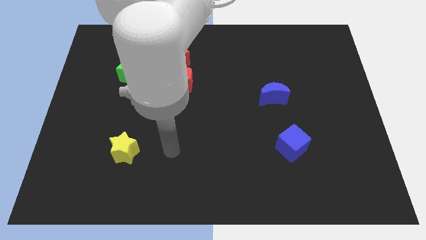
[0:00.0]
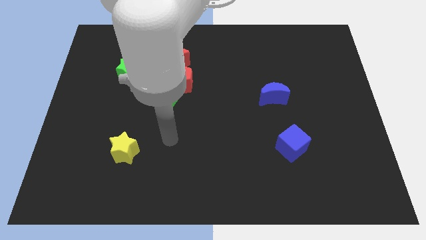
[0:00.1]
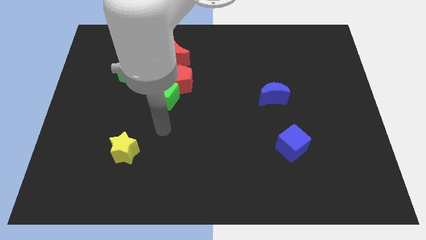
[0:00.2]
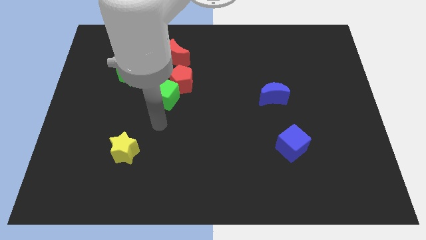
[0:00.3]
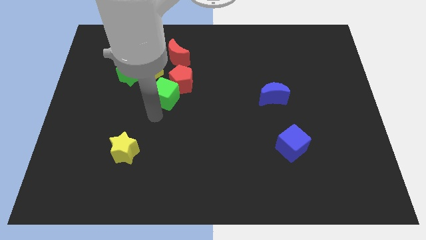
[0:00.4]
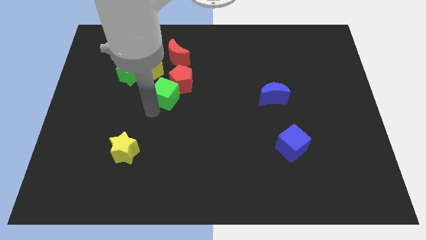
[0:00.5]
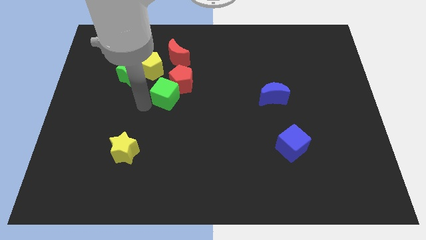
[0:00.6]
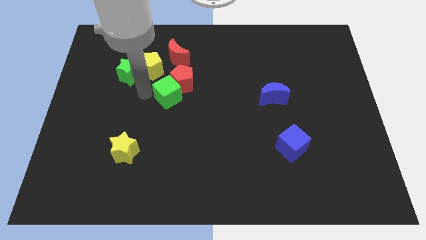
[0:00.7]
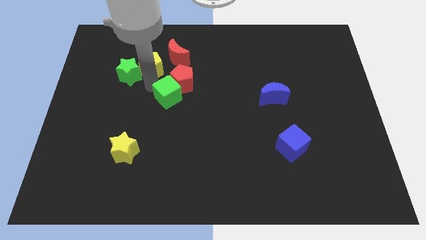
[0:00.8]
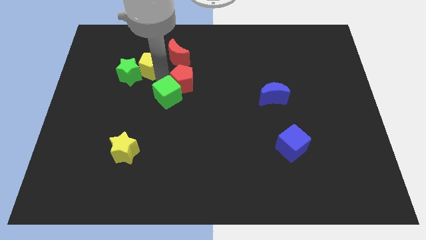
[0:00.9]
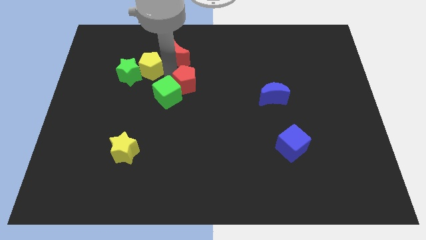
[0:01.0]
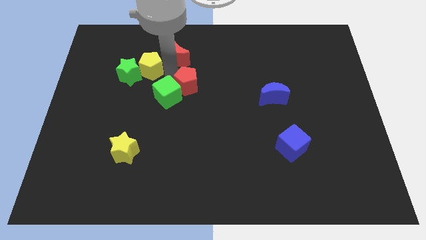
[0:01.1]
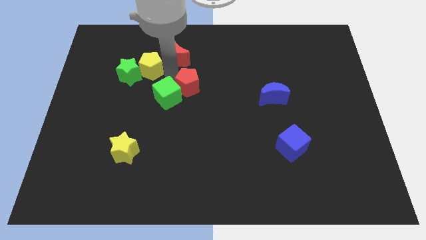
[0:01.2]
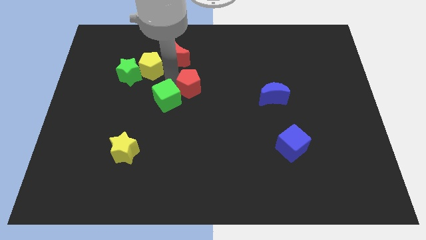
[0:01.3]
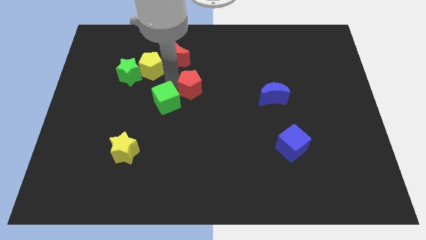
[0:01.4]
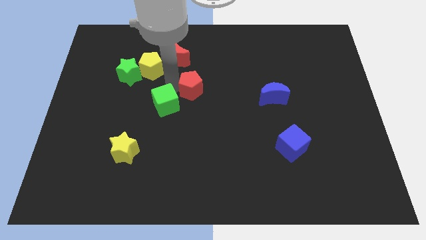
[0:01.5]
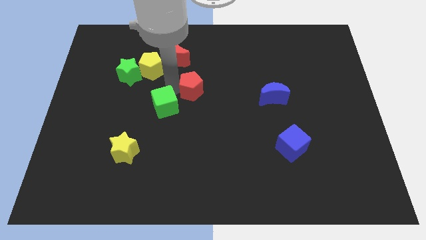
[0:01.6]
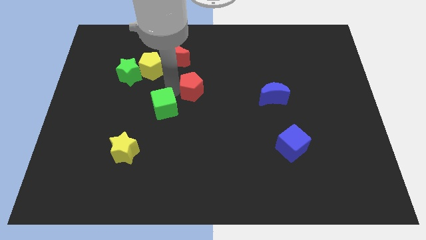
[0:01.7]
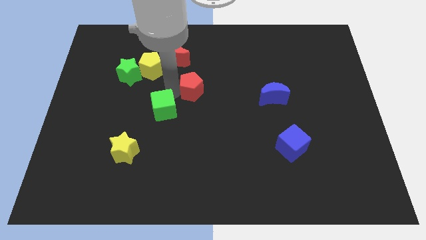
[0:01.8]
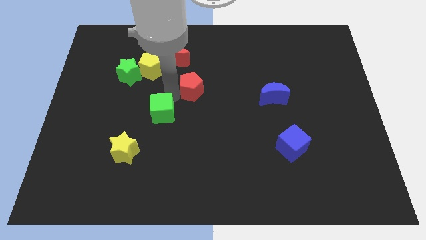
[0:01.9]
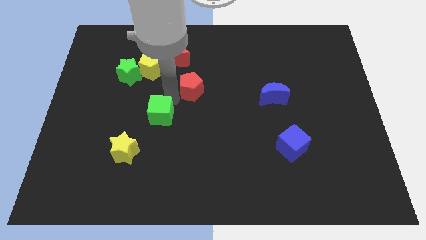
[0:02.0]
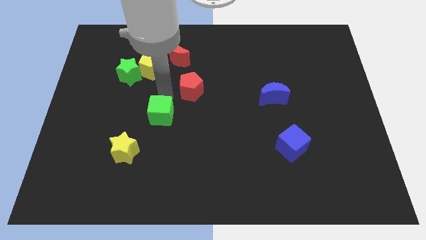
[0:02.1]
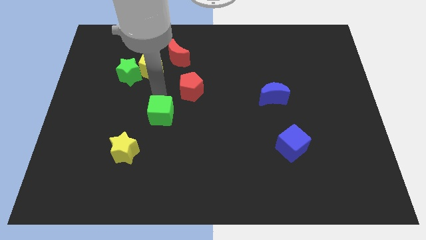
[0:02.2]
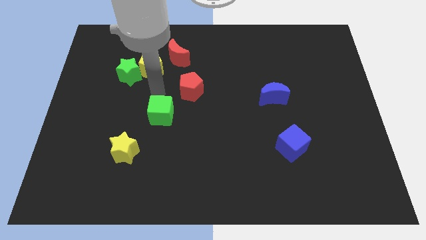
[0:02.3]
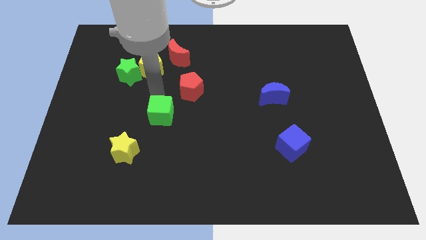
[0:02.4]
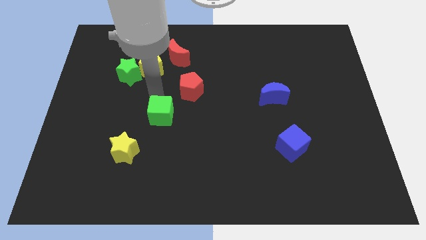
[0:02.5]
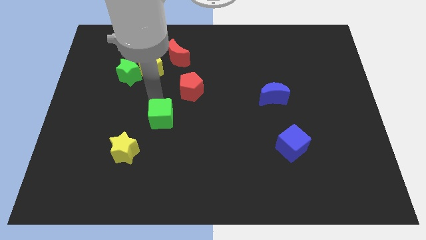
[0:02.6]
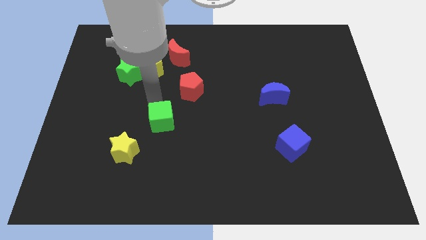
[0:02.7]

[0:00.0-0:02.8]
move the green cube downwards a bit

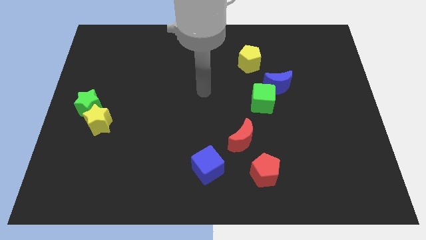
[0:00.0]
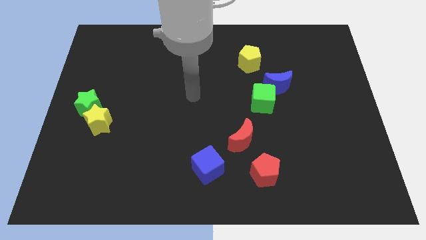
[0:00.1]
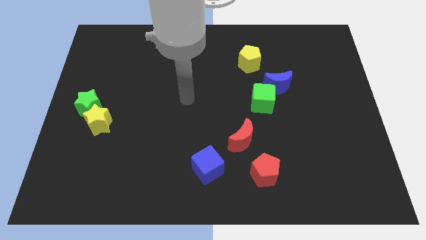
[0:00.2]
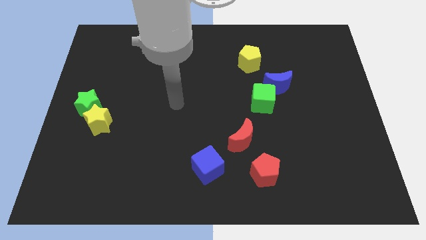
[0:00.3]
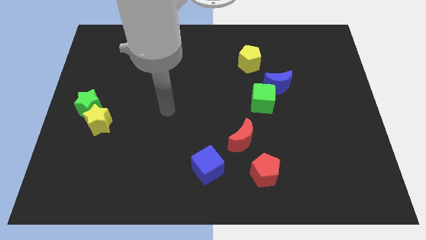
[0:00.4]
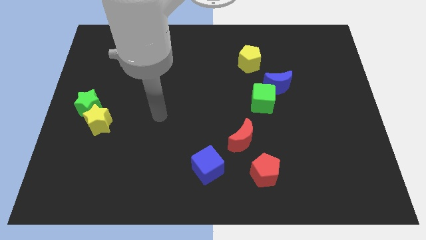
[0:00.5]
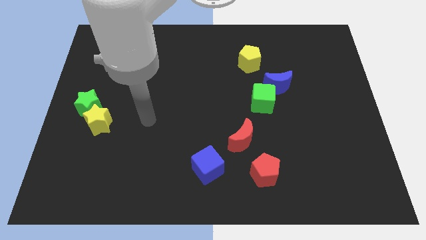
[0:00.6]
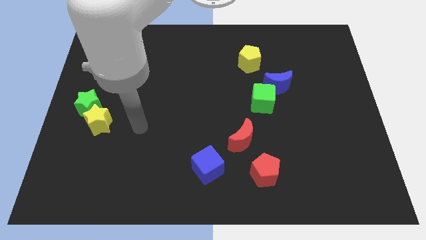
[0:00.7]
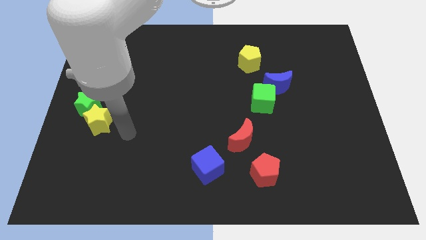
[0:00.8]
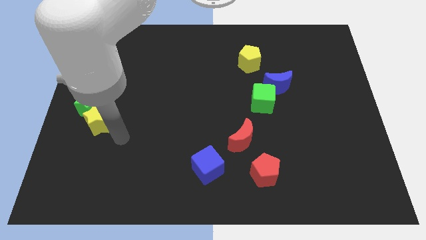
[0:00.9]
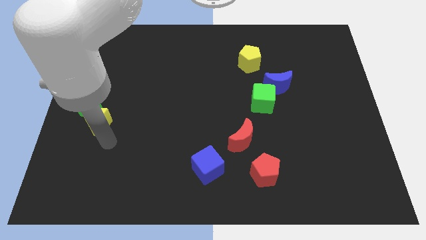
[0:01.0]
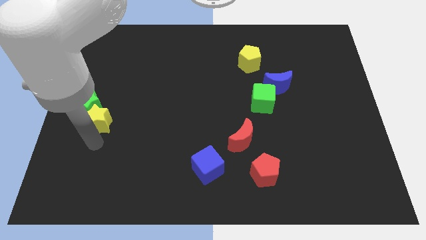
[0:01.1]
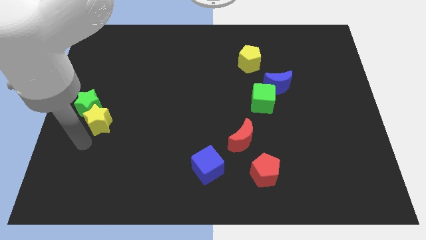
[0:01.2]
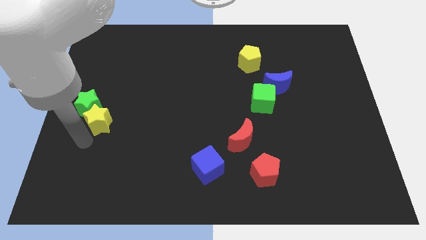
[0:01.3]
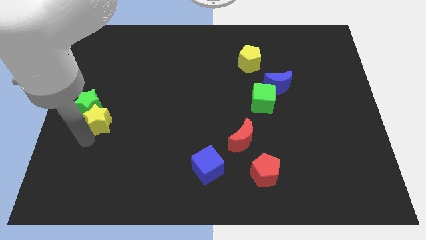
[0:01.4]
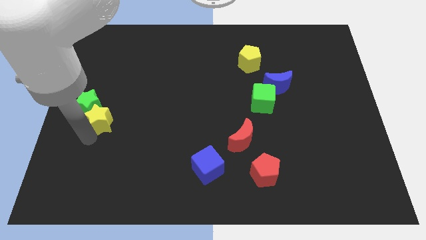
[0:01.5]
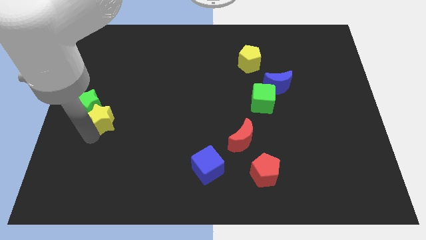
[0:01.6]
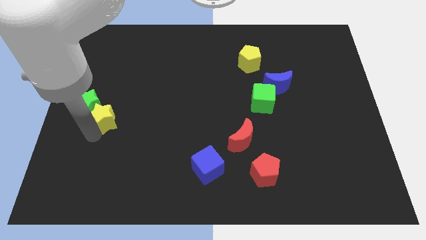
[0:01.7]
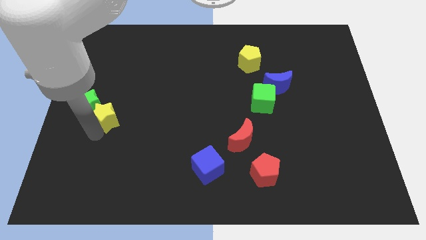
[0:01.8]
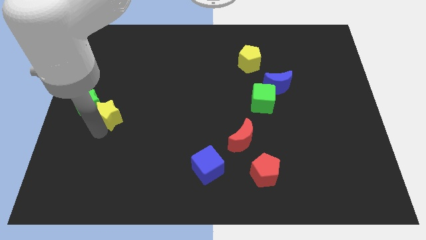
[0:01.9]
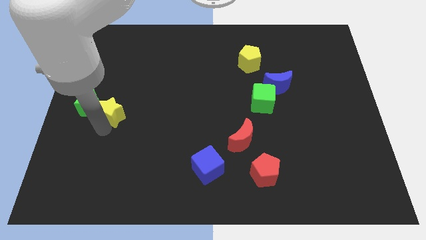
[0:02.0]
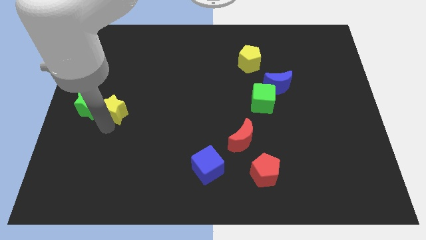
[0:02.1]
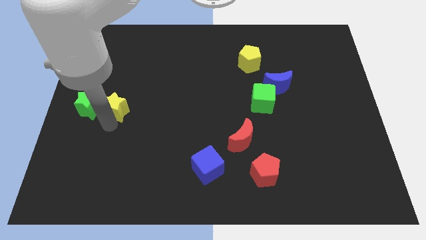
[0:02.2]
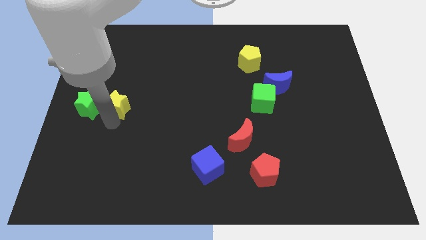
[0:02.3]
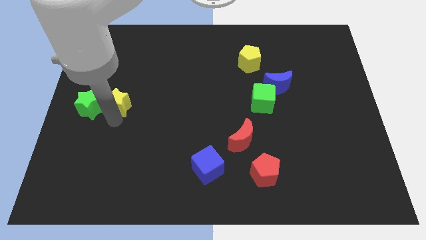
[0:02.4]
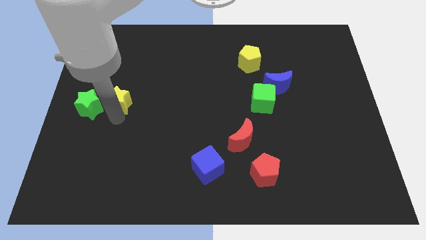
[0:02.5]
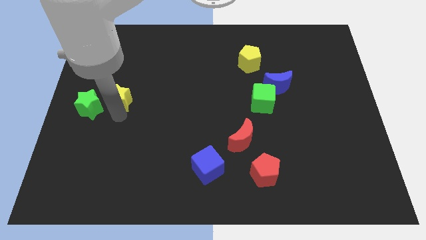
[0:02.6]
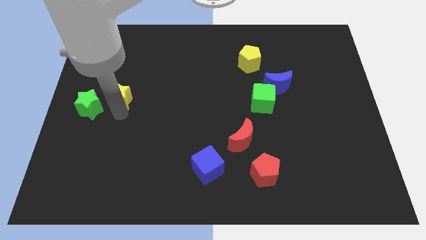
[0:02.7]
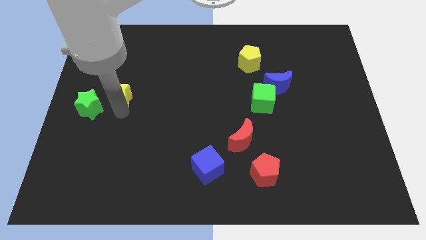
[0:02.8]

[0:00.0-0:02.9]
slightly push the yellow star up

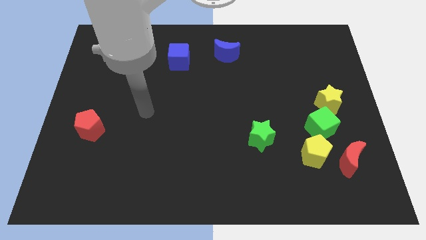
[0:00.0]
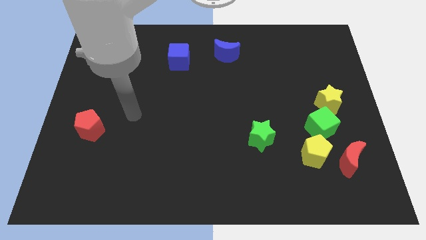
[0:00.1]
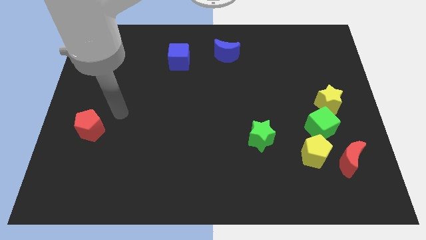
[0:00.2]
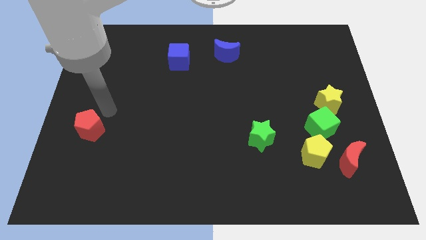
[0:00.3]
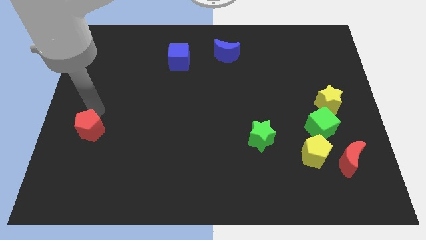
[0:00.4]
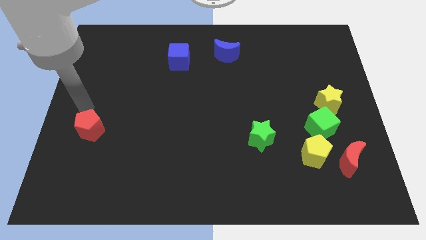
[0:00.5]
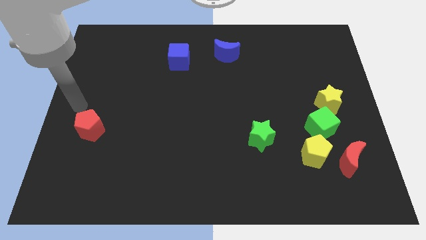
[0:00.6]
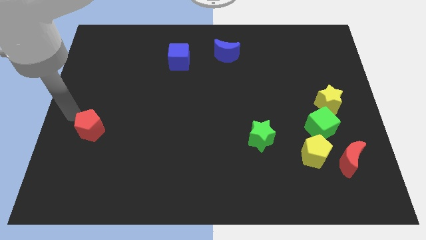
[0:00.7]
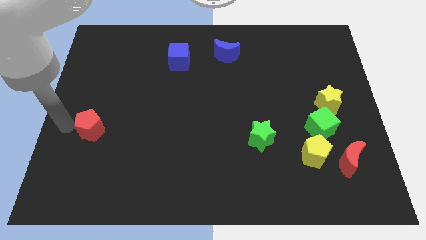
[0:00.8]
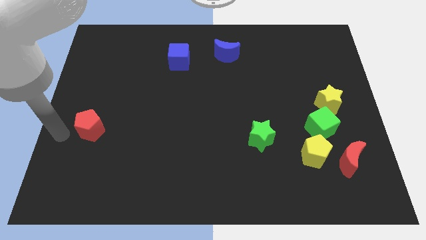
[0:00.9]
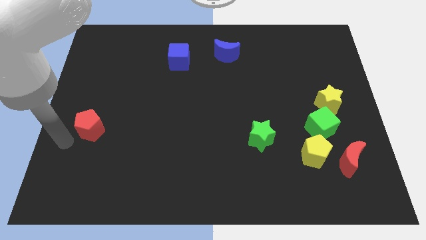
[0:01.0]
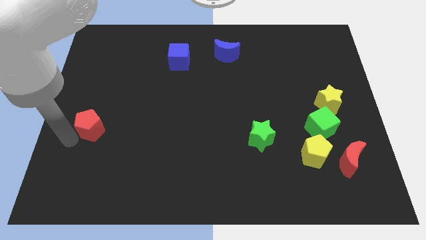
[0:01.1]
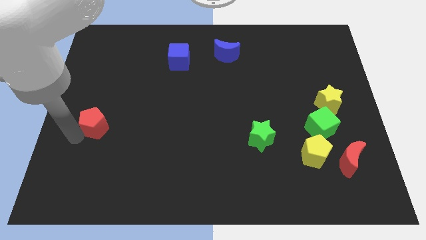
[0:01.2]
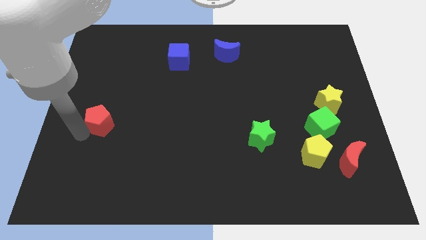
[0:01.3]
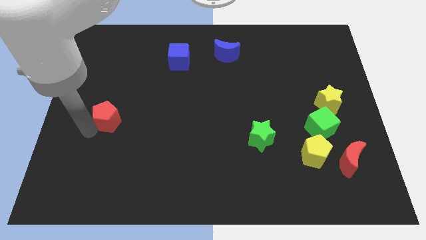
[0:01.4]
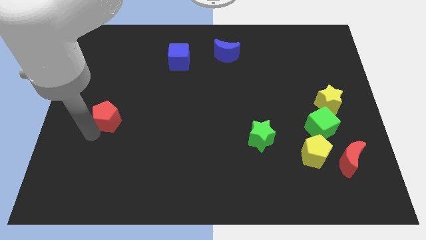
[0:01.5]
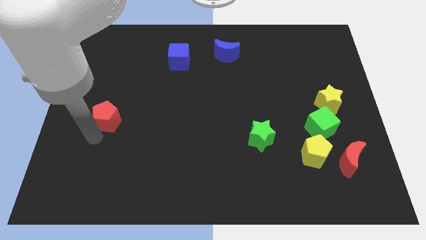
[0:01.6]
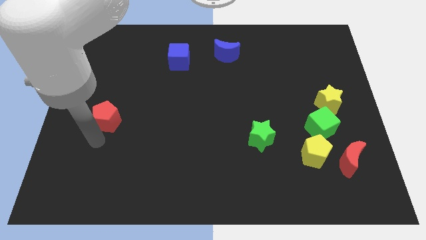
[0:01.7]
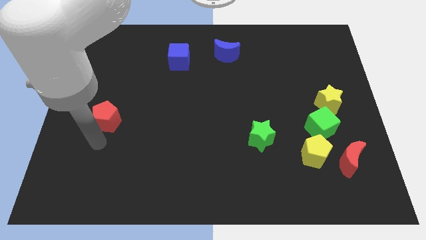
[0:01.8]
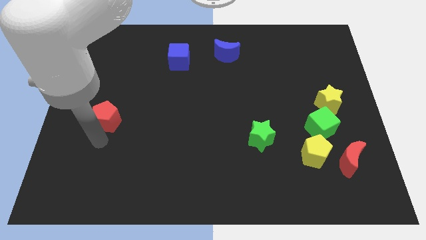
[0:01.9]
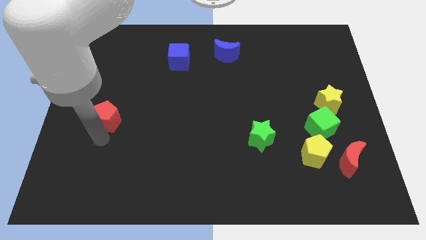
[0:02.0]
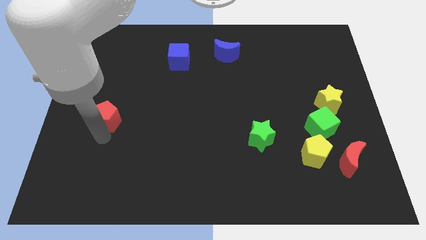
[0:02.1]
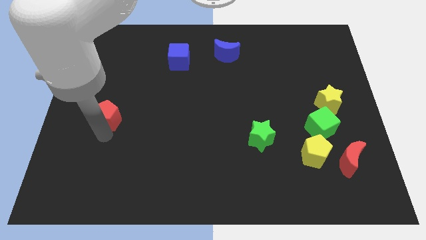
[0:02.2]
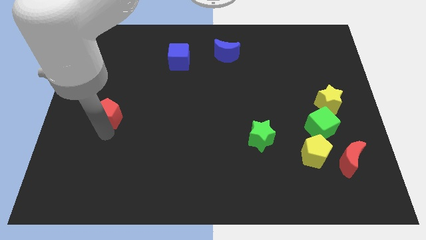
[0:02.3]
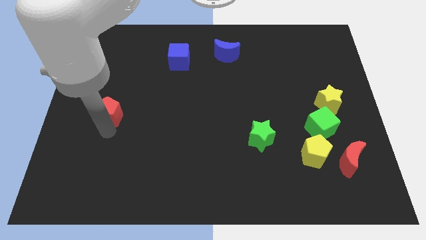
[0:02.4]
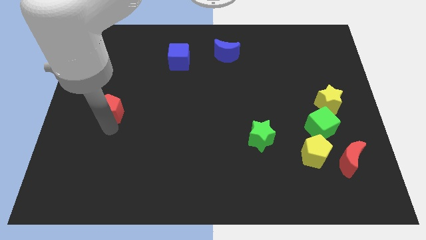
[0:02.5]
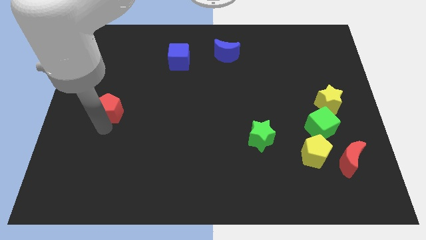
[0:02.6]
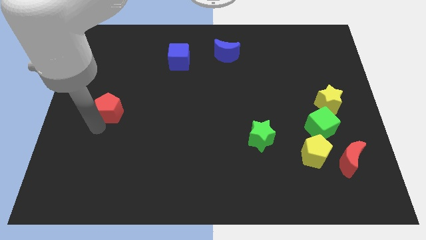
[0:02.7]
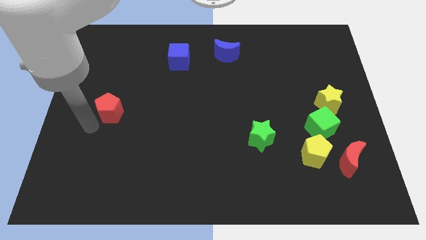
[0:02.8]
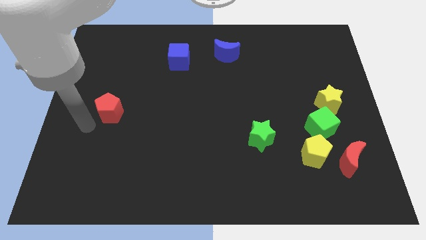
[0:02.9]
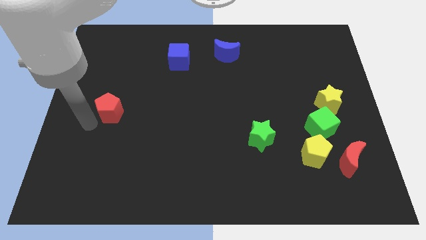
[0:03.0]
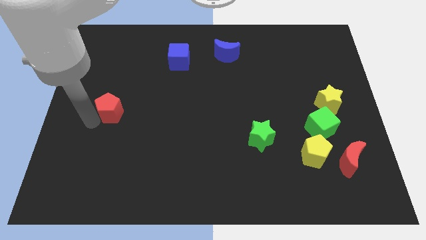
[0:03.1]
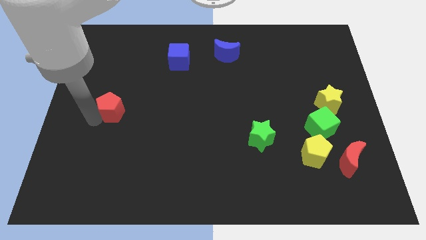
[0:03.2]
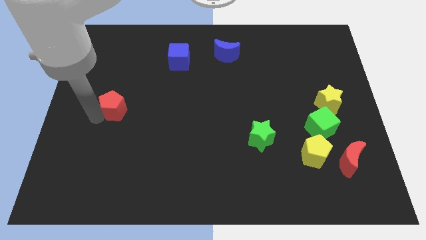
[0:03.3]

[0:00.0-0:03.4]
push the red pentagon upwards and to the right diagonally a bit
